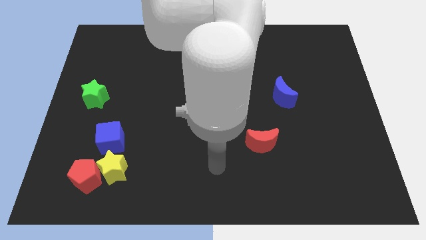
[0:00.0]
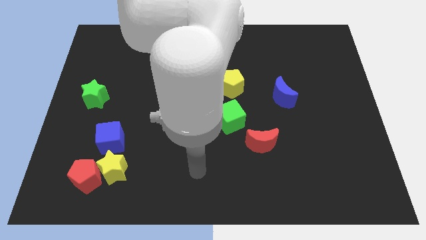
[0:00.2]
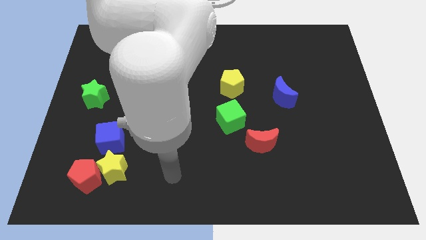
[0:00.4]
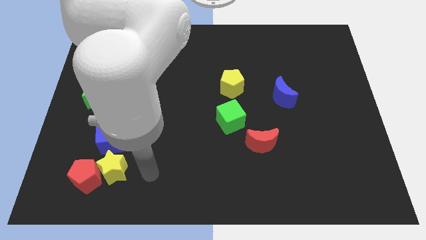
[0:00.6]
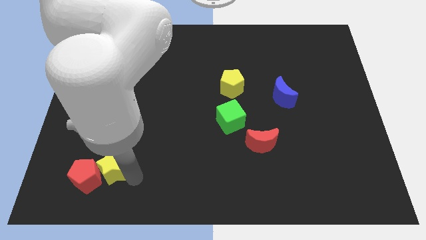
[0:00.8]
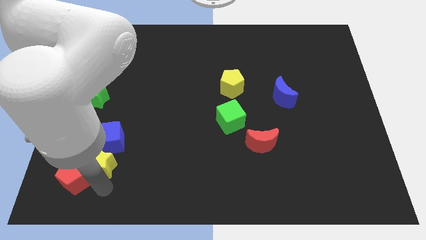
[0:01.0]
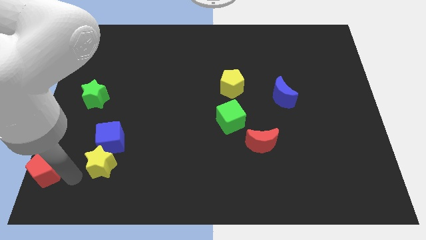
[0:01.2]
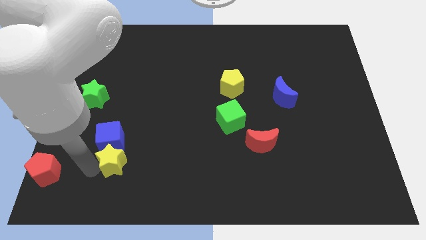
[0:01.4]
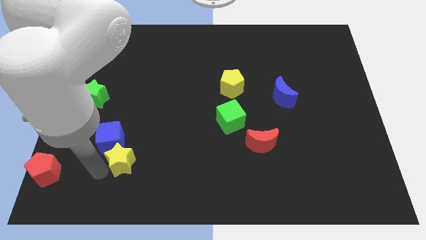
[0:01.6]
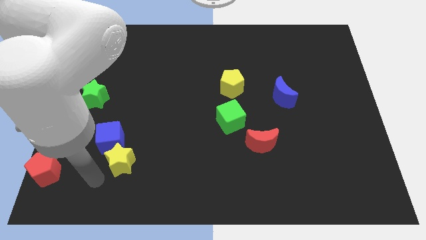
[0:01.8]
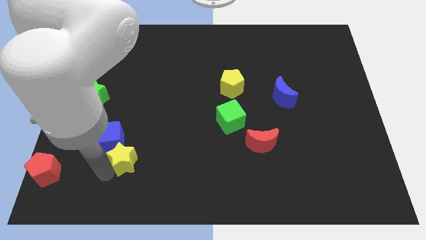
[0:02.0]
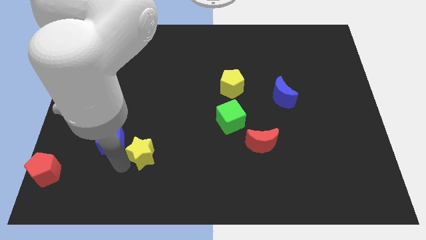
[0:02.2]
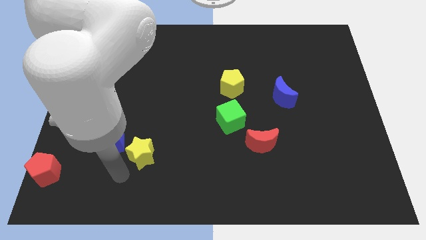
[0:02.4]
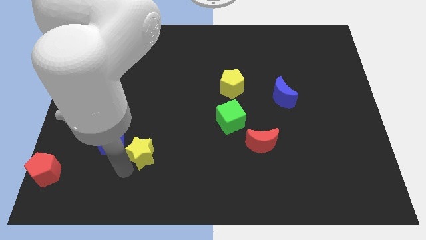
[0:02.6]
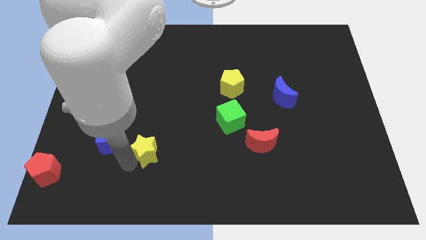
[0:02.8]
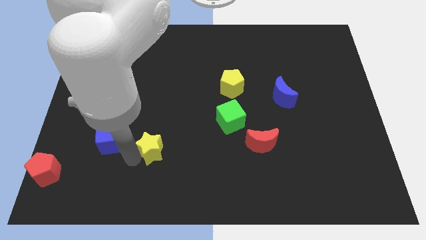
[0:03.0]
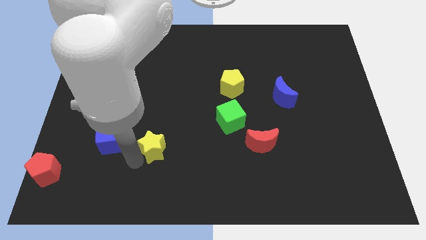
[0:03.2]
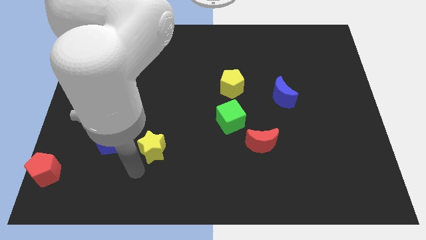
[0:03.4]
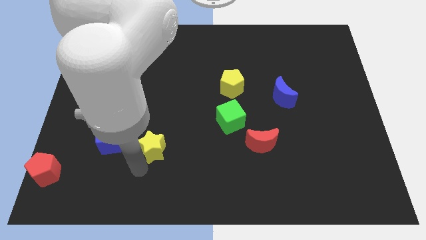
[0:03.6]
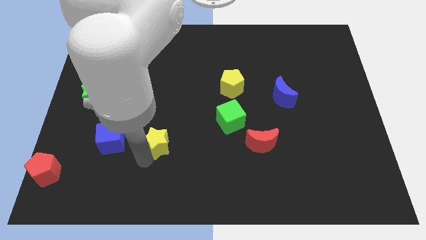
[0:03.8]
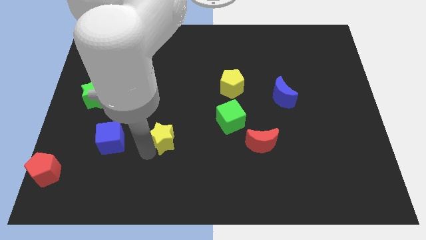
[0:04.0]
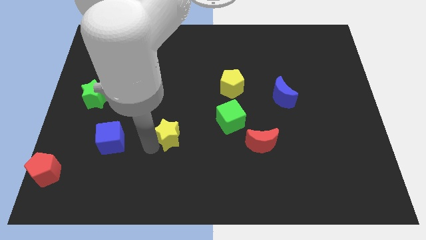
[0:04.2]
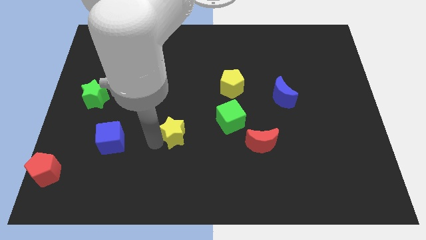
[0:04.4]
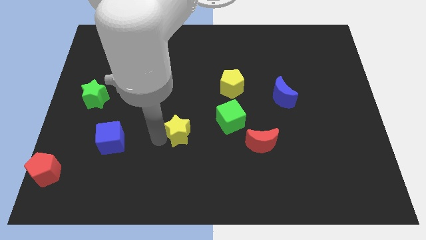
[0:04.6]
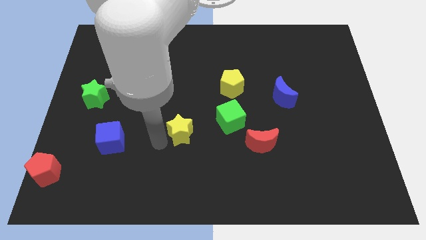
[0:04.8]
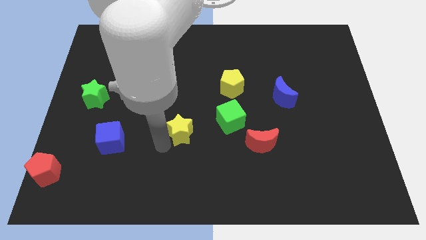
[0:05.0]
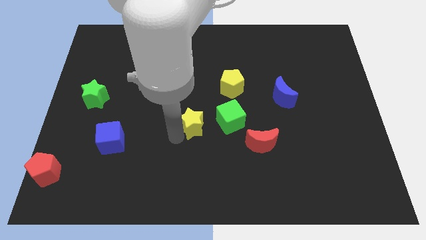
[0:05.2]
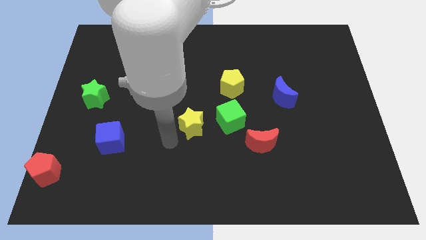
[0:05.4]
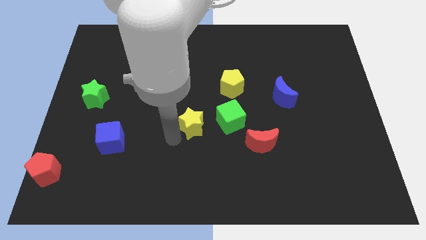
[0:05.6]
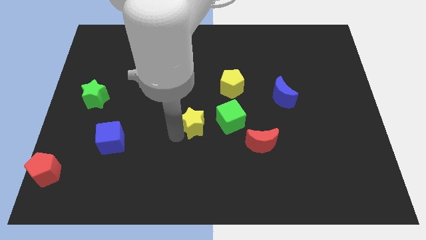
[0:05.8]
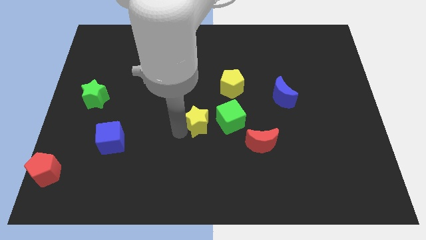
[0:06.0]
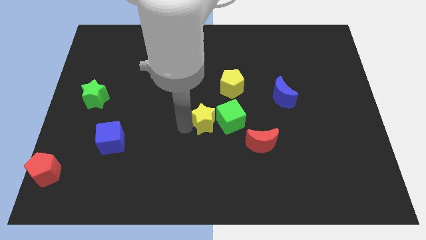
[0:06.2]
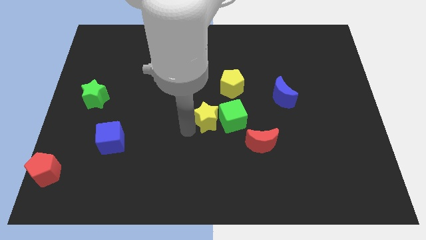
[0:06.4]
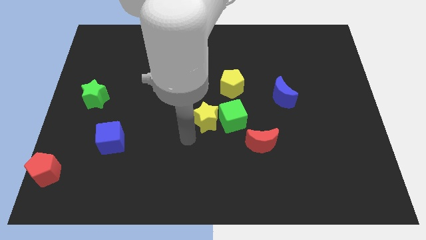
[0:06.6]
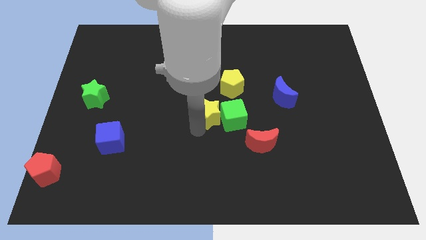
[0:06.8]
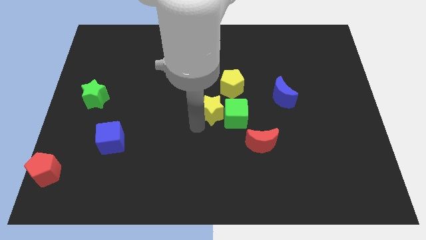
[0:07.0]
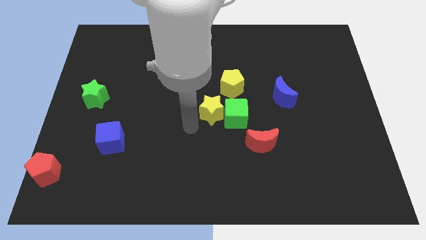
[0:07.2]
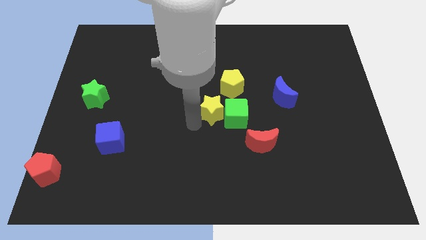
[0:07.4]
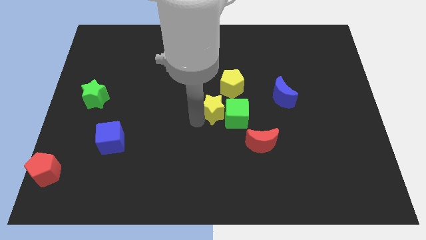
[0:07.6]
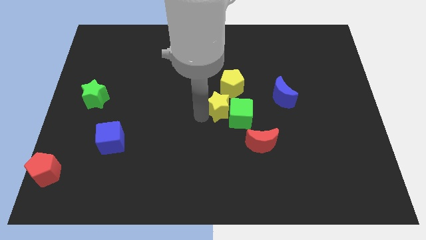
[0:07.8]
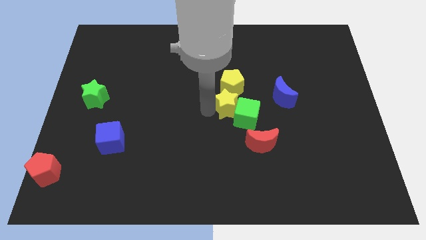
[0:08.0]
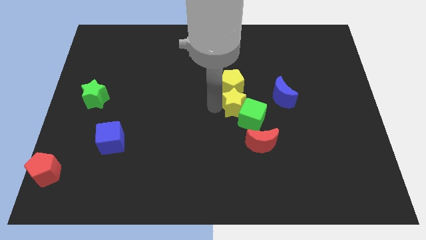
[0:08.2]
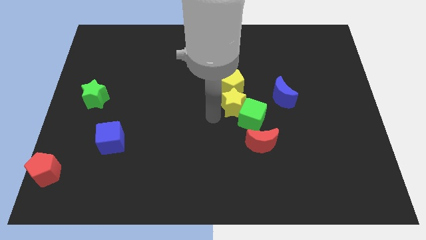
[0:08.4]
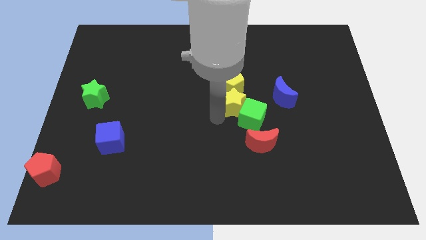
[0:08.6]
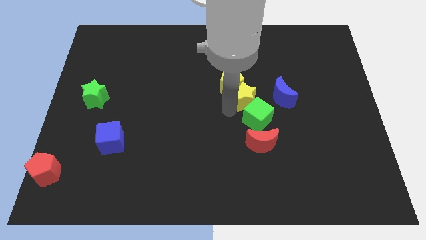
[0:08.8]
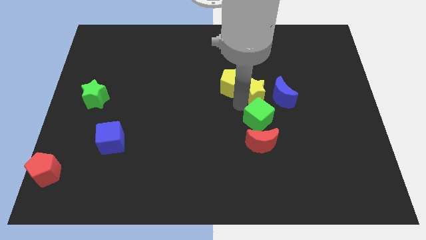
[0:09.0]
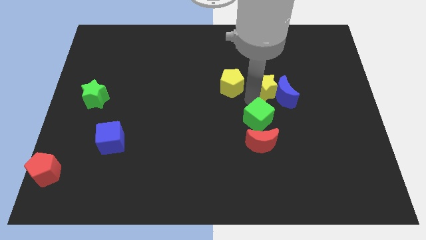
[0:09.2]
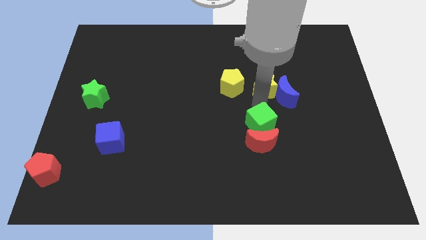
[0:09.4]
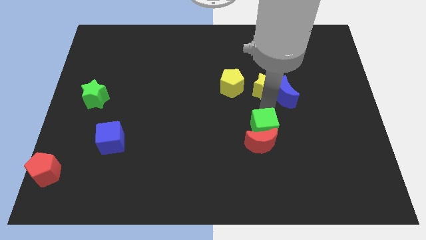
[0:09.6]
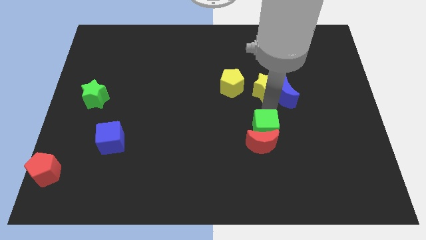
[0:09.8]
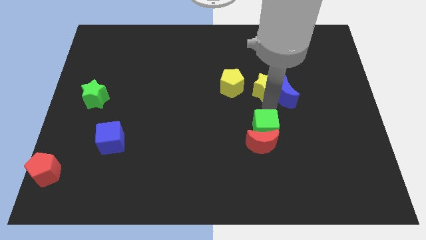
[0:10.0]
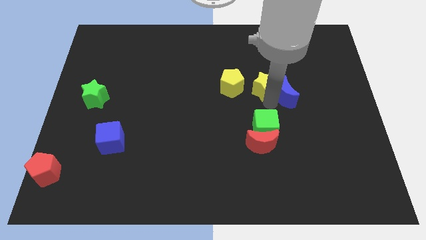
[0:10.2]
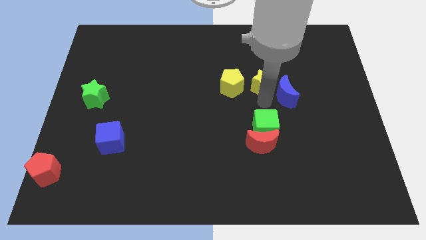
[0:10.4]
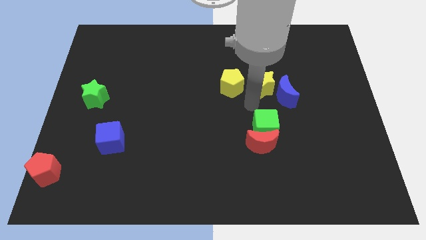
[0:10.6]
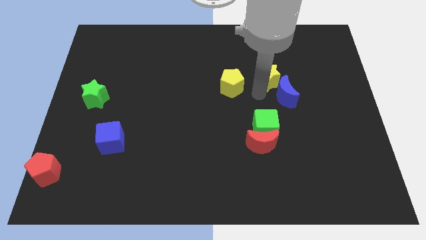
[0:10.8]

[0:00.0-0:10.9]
push the yellow star to the top side of the blue moon

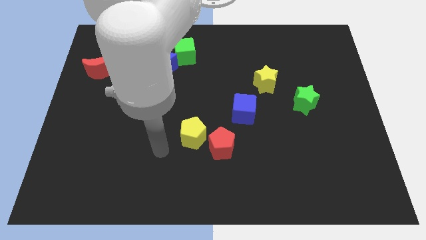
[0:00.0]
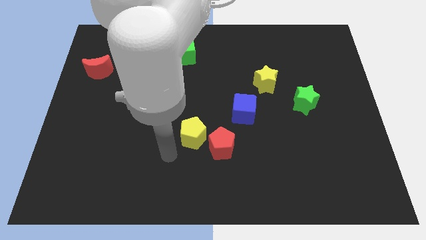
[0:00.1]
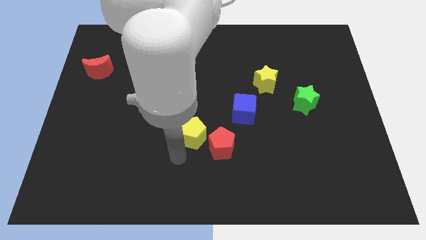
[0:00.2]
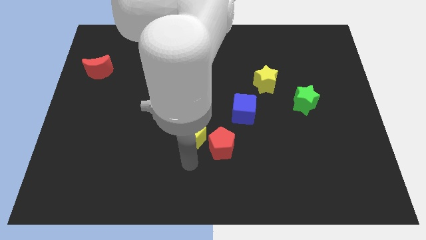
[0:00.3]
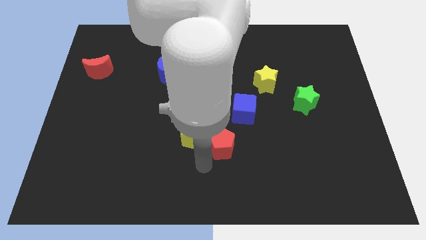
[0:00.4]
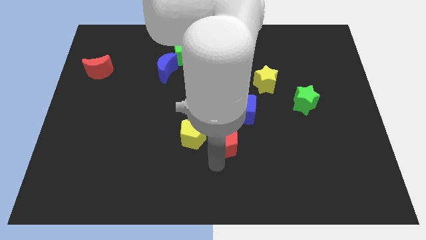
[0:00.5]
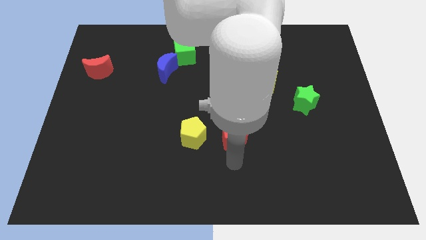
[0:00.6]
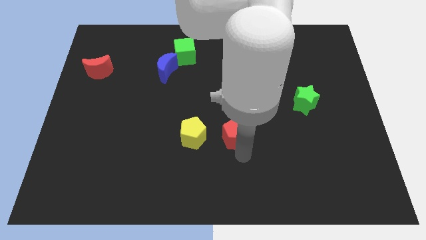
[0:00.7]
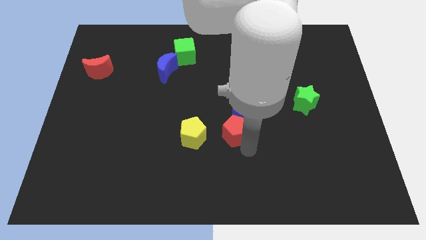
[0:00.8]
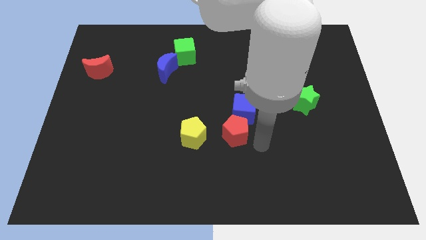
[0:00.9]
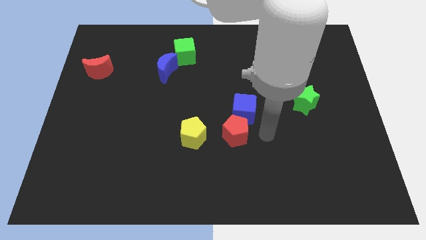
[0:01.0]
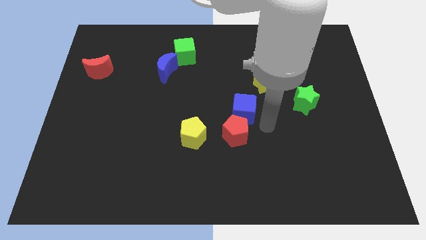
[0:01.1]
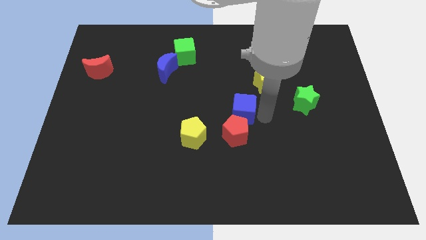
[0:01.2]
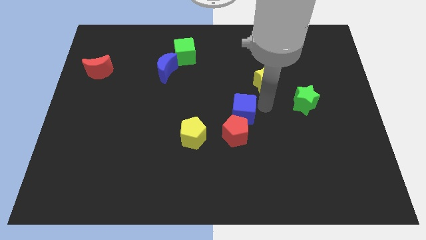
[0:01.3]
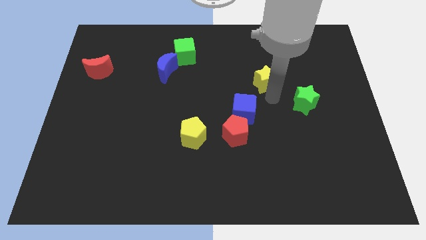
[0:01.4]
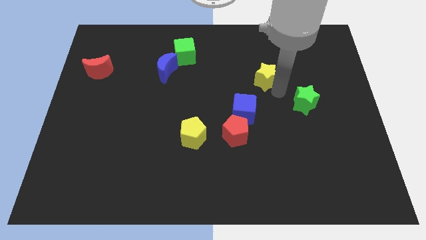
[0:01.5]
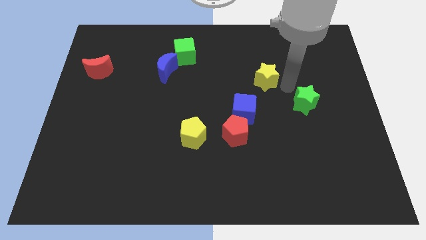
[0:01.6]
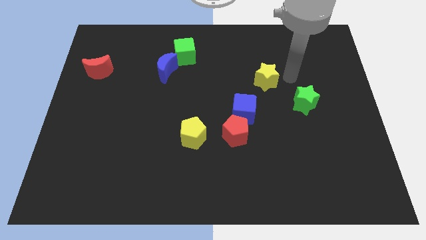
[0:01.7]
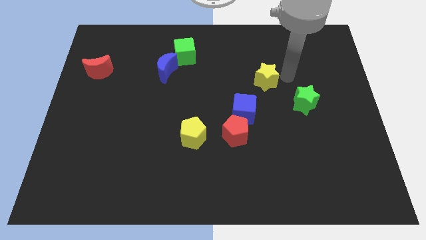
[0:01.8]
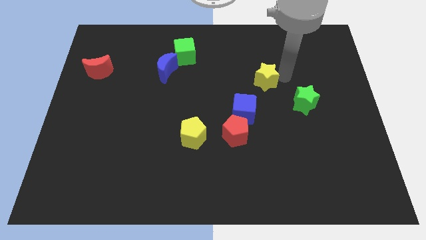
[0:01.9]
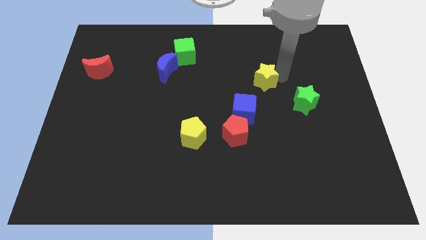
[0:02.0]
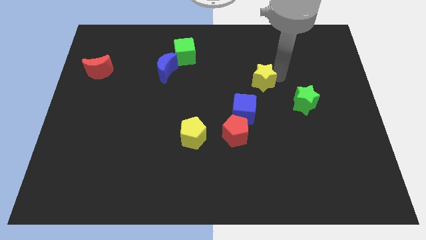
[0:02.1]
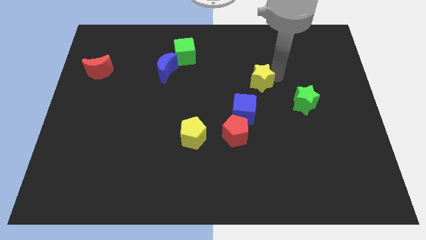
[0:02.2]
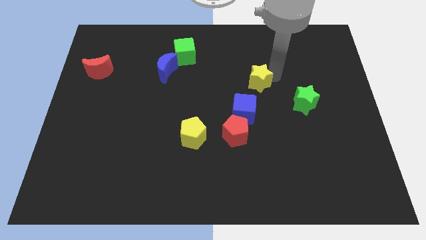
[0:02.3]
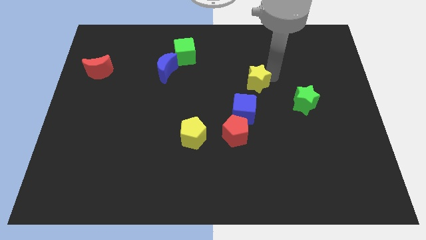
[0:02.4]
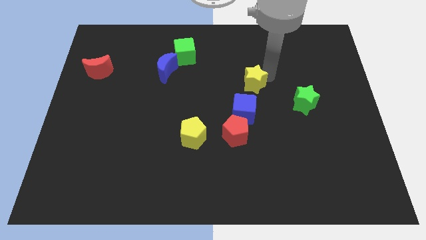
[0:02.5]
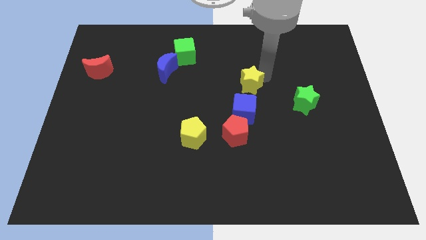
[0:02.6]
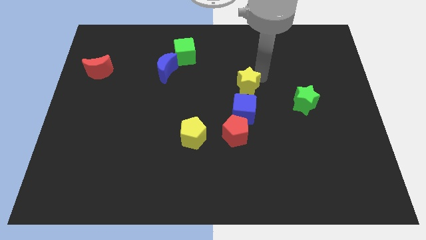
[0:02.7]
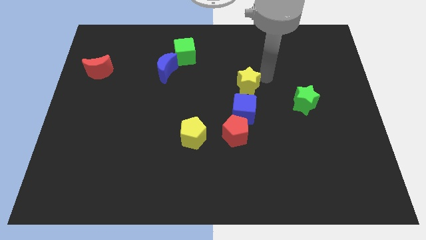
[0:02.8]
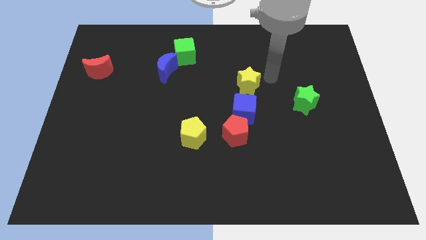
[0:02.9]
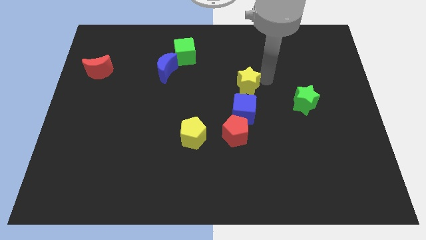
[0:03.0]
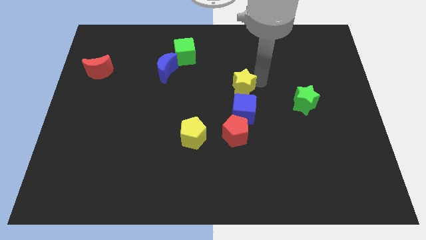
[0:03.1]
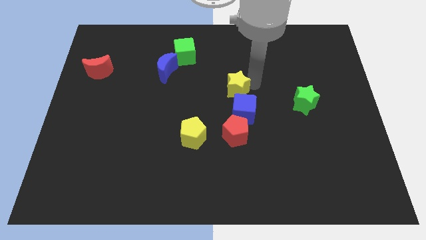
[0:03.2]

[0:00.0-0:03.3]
put the yellow star to the top left of the blue cube
